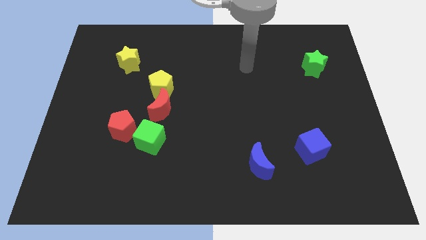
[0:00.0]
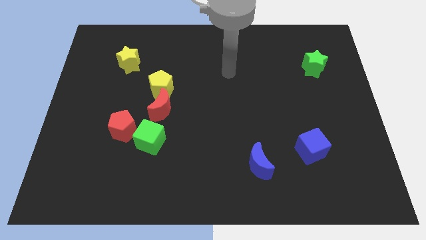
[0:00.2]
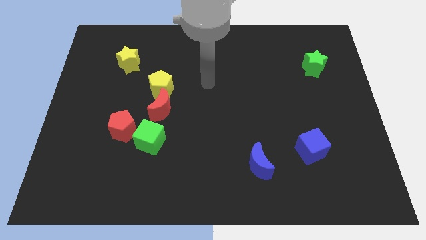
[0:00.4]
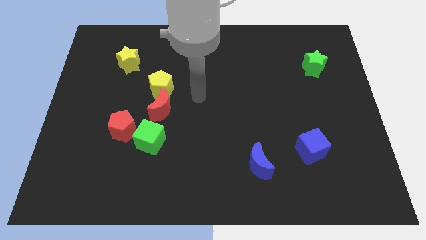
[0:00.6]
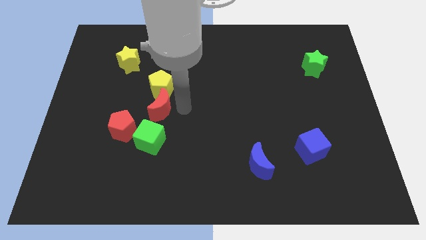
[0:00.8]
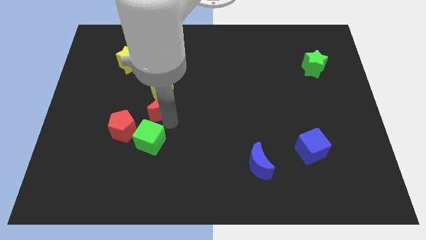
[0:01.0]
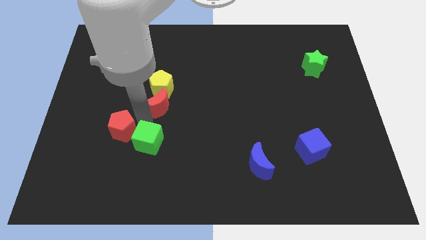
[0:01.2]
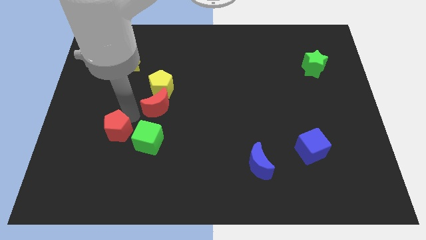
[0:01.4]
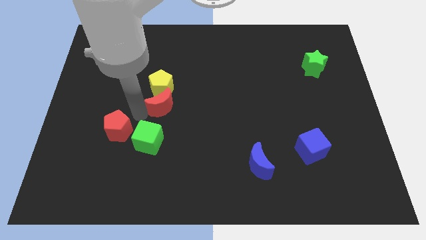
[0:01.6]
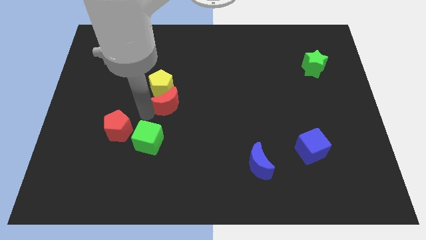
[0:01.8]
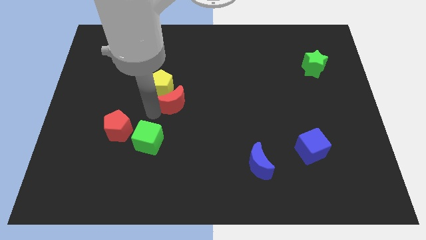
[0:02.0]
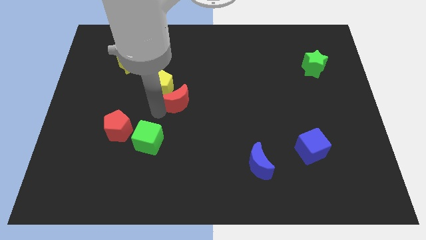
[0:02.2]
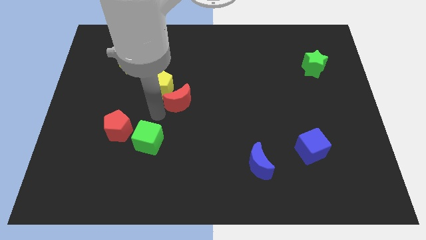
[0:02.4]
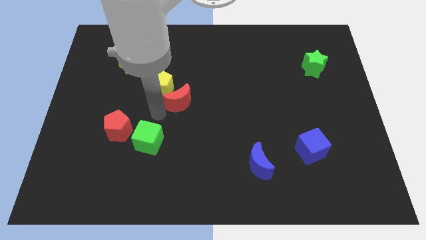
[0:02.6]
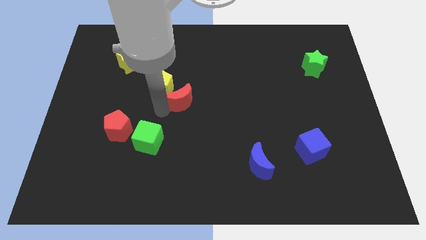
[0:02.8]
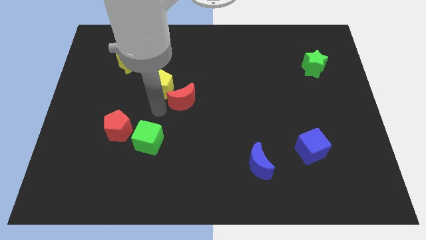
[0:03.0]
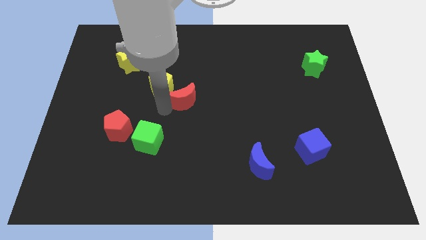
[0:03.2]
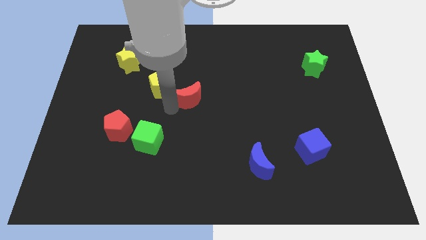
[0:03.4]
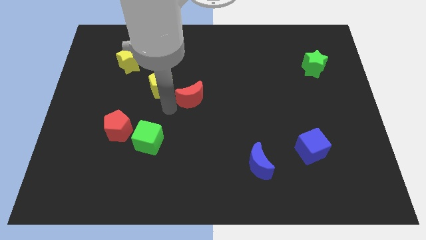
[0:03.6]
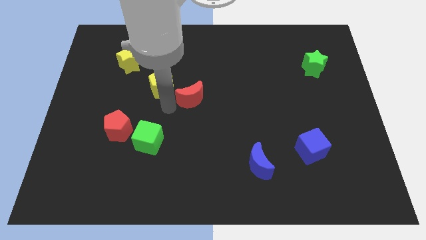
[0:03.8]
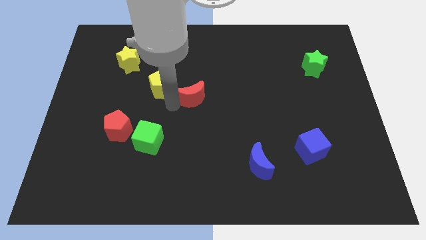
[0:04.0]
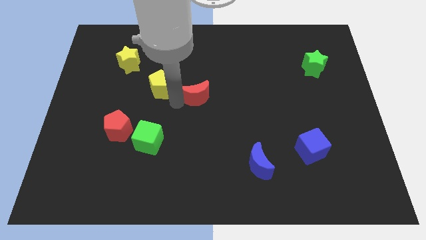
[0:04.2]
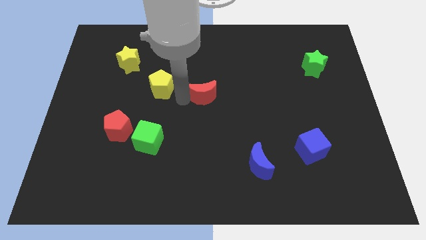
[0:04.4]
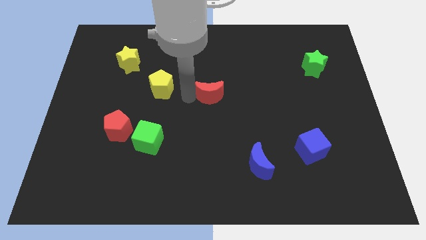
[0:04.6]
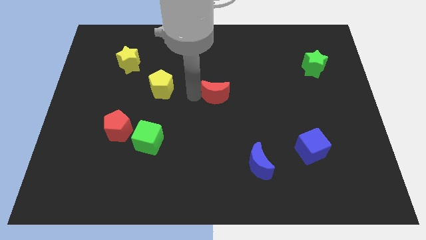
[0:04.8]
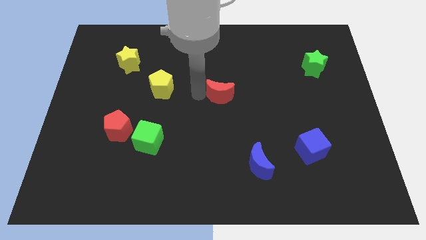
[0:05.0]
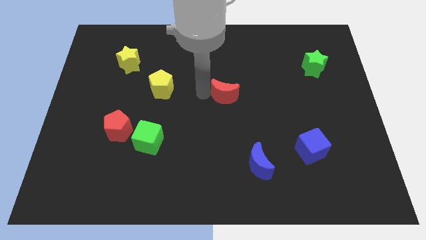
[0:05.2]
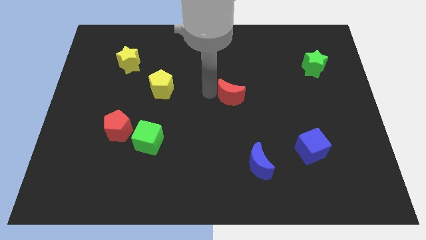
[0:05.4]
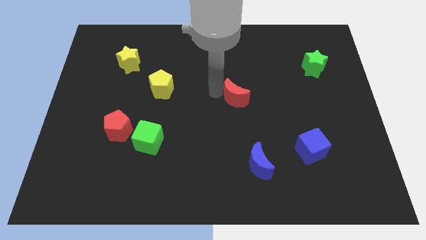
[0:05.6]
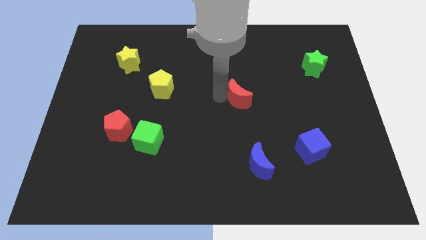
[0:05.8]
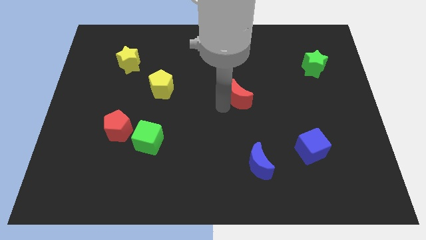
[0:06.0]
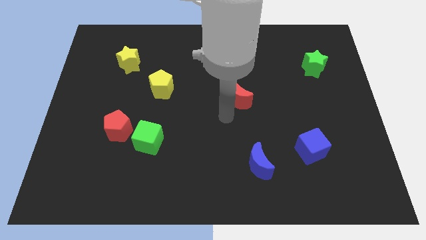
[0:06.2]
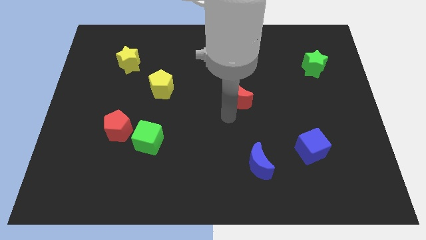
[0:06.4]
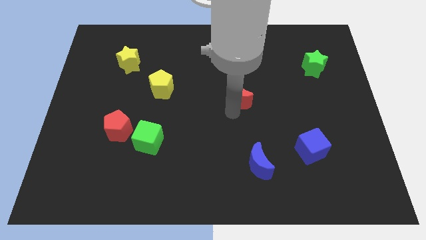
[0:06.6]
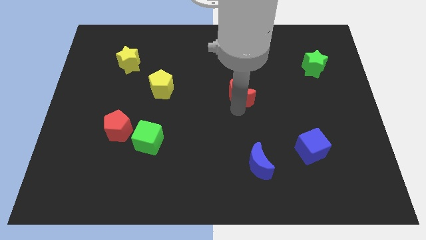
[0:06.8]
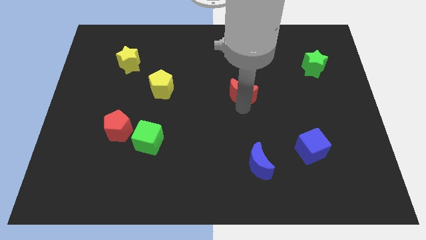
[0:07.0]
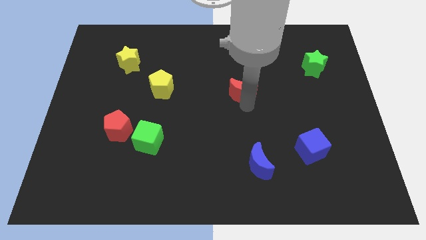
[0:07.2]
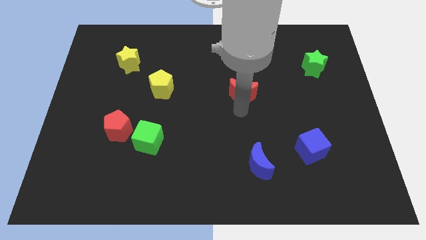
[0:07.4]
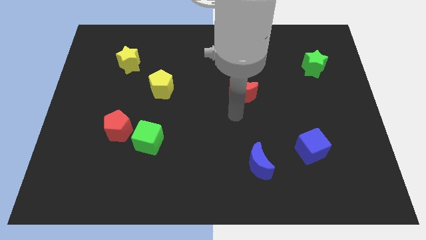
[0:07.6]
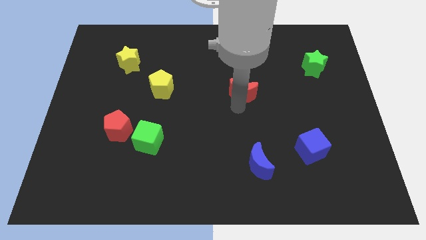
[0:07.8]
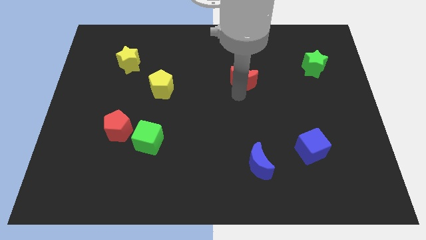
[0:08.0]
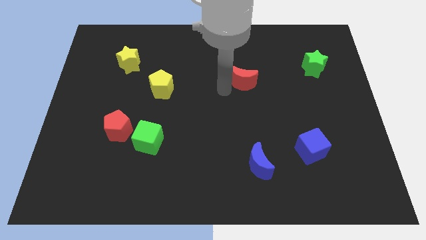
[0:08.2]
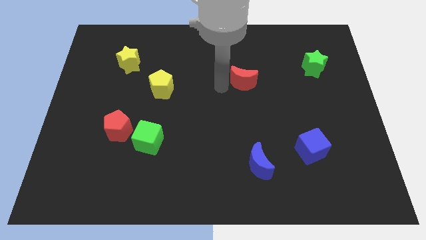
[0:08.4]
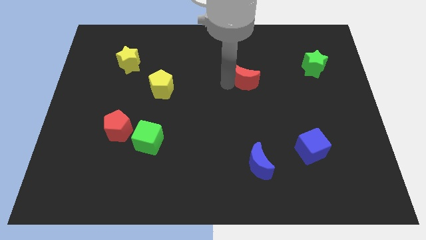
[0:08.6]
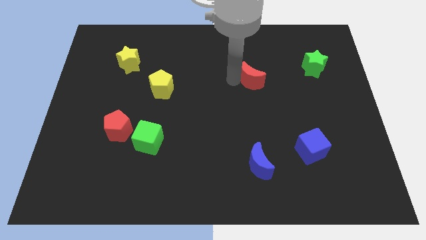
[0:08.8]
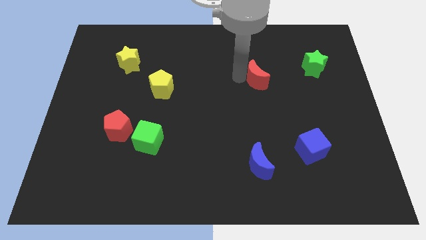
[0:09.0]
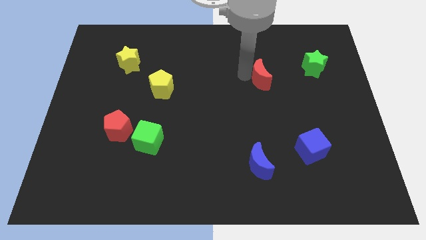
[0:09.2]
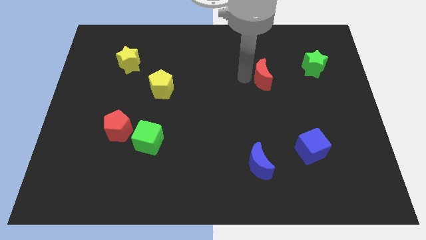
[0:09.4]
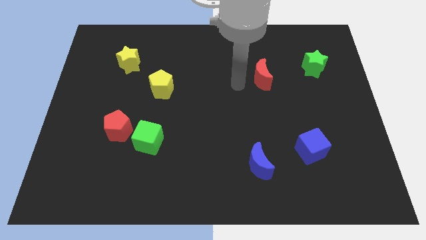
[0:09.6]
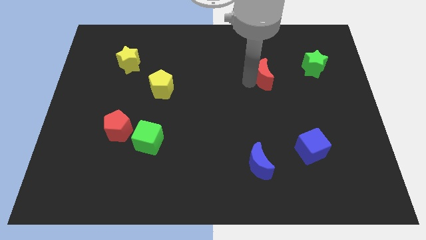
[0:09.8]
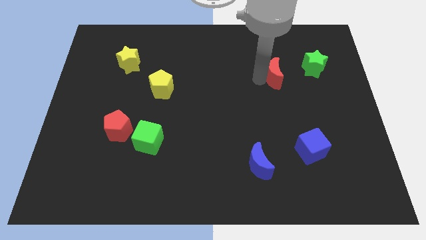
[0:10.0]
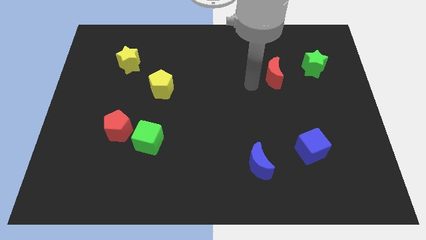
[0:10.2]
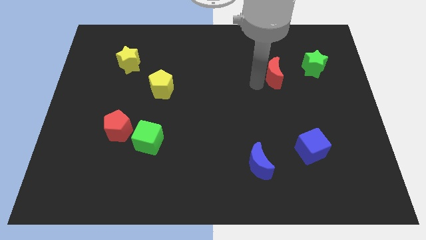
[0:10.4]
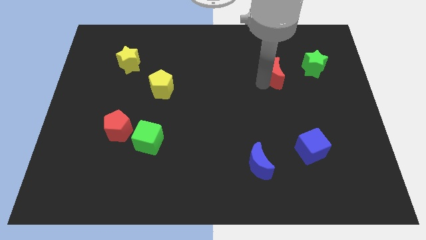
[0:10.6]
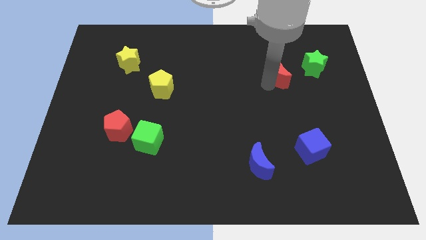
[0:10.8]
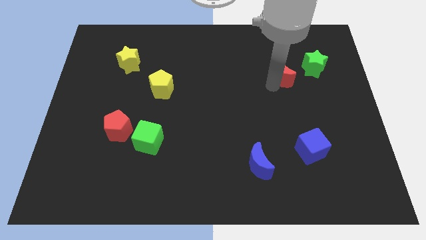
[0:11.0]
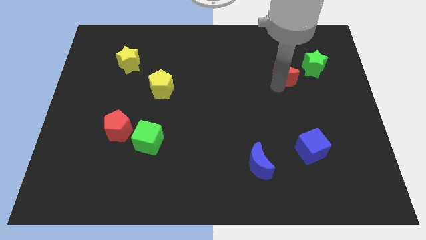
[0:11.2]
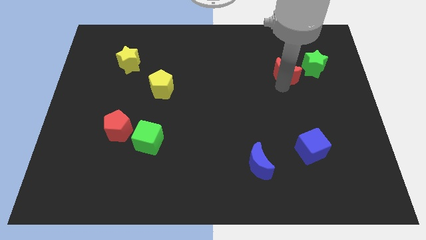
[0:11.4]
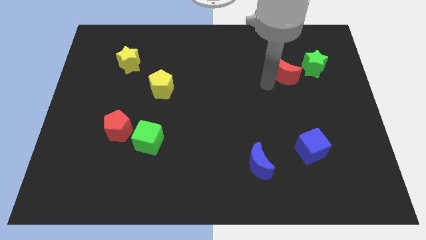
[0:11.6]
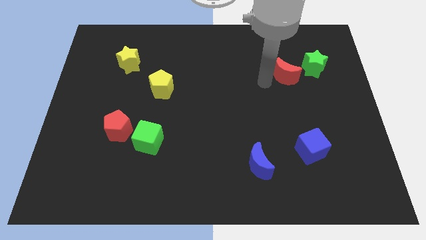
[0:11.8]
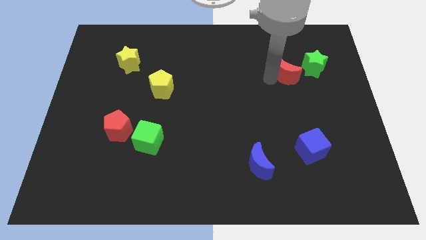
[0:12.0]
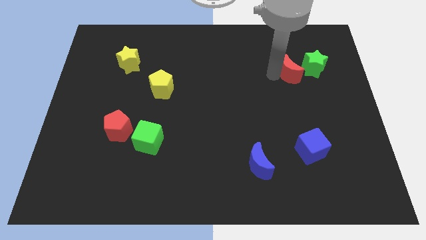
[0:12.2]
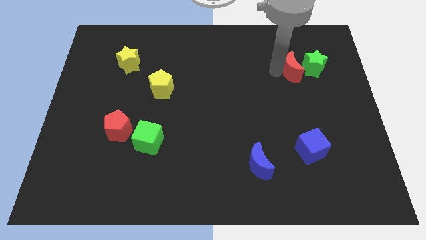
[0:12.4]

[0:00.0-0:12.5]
put the red moon to the green star

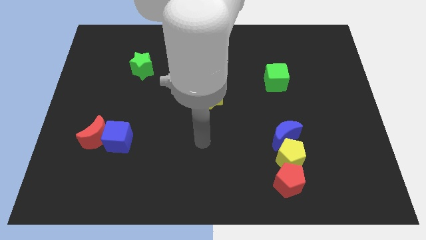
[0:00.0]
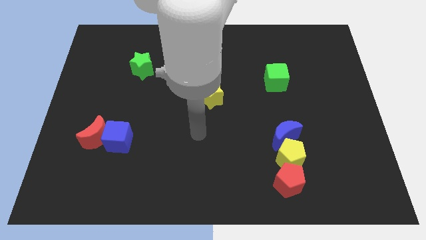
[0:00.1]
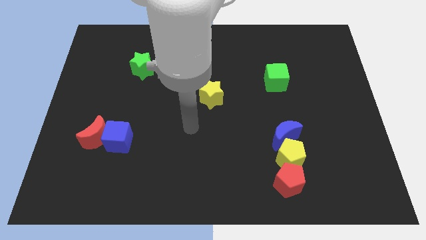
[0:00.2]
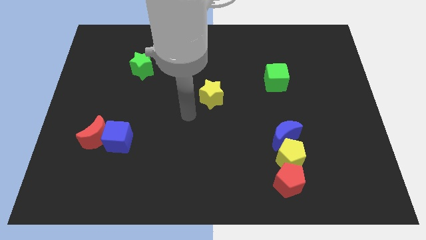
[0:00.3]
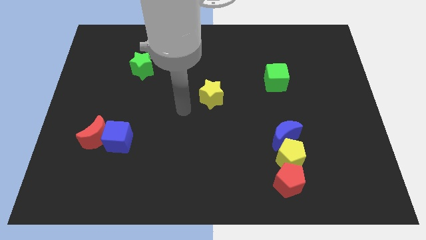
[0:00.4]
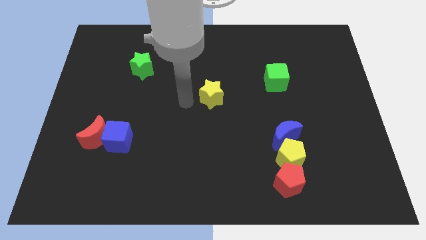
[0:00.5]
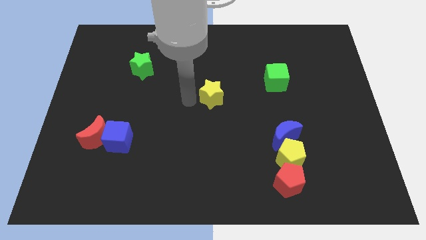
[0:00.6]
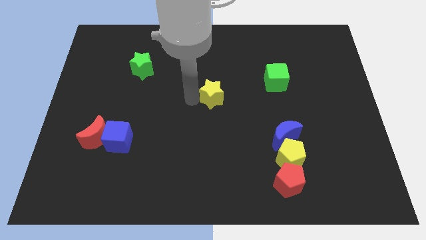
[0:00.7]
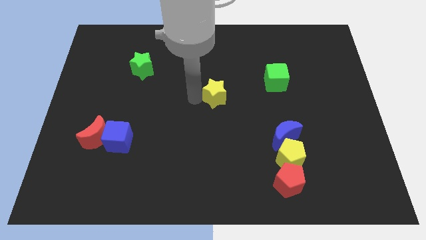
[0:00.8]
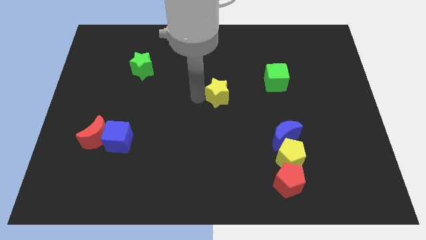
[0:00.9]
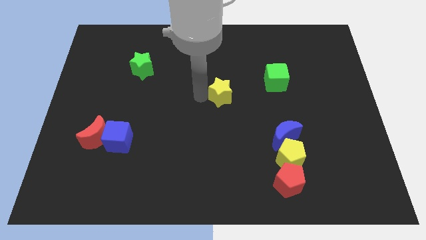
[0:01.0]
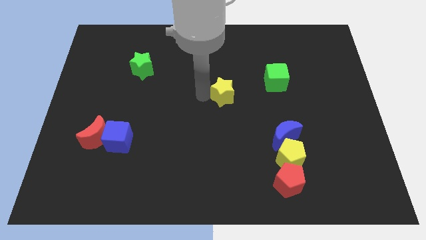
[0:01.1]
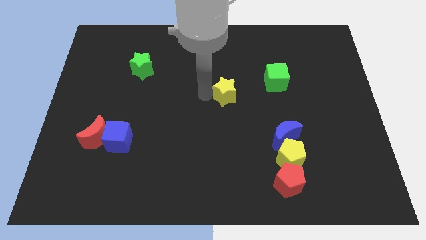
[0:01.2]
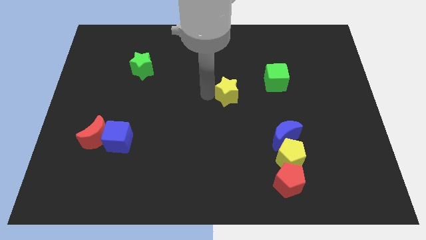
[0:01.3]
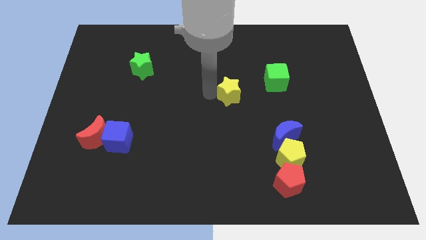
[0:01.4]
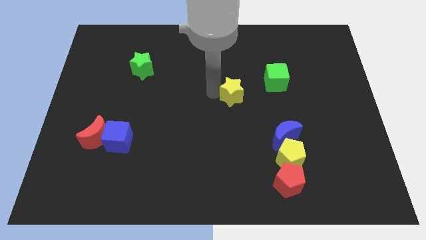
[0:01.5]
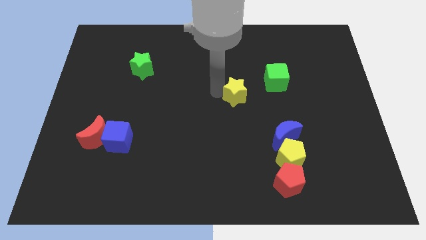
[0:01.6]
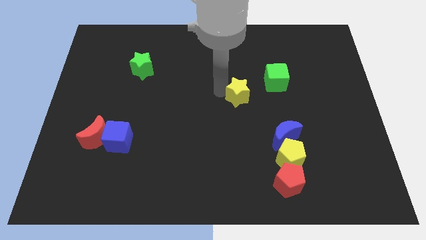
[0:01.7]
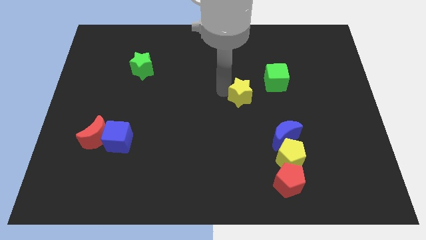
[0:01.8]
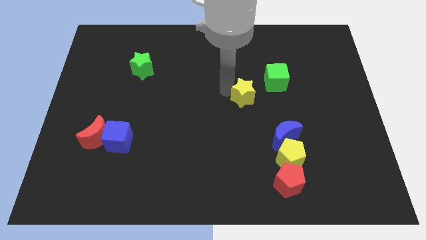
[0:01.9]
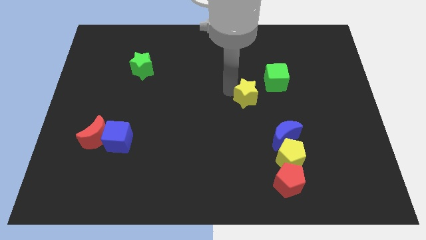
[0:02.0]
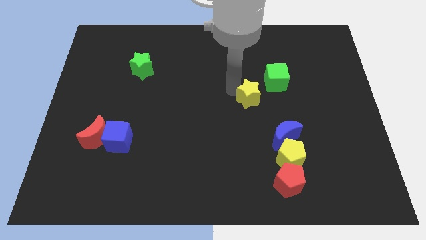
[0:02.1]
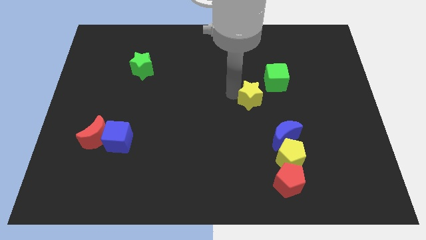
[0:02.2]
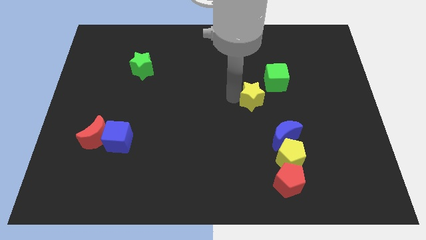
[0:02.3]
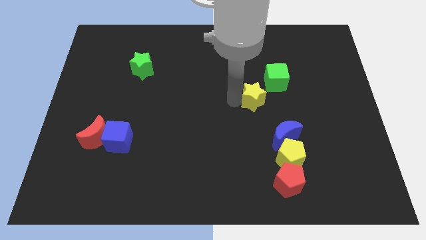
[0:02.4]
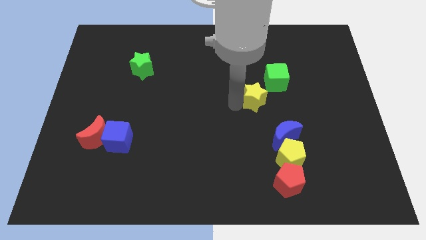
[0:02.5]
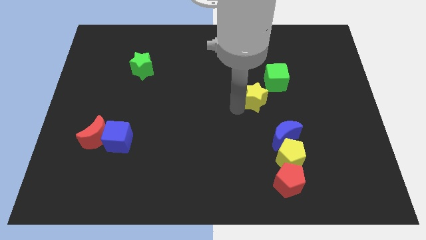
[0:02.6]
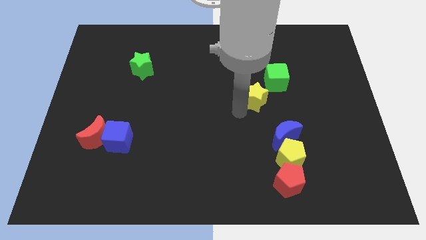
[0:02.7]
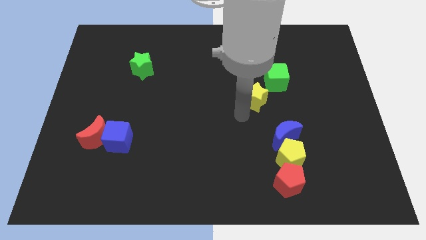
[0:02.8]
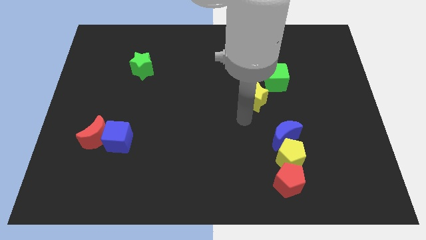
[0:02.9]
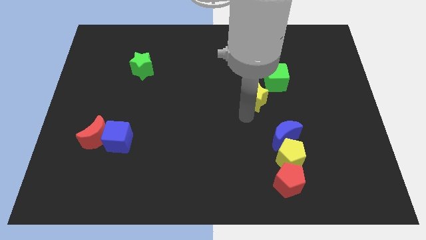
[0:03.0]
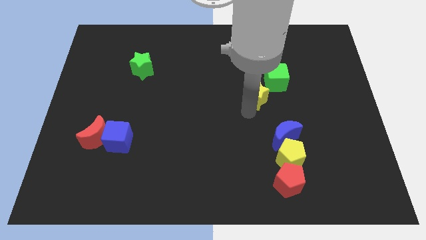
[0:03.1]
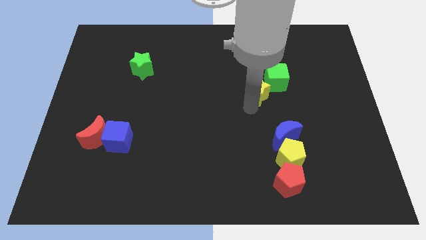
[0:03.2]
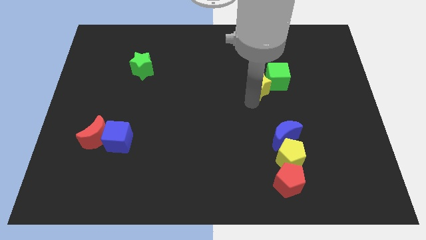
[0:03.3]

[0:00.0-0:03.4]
put the yellow star next to the green cube
